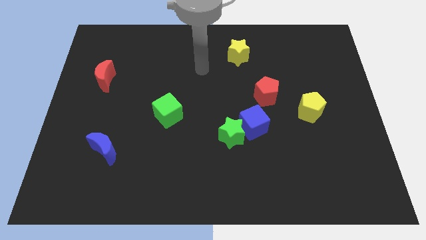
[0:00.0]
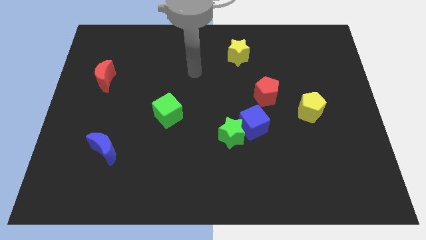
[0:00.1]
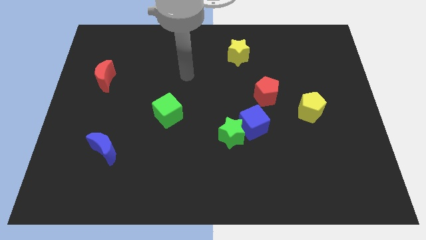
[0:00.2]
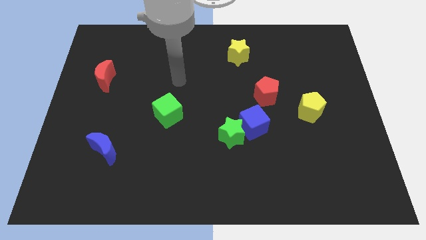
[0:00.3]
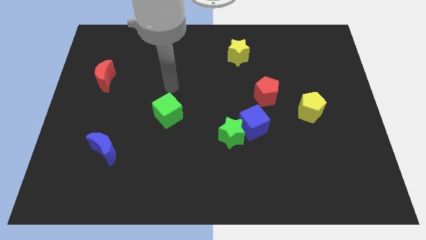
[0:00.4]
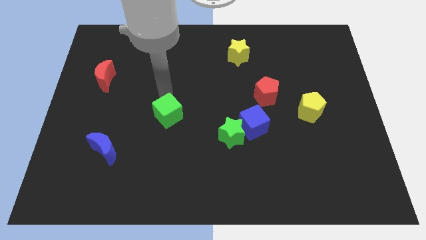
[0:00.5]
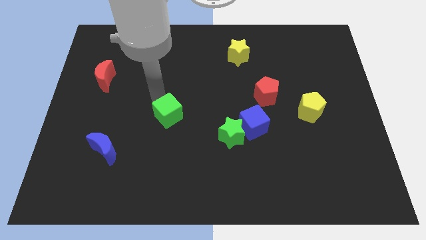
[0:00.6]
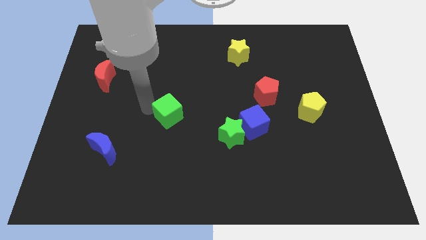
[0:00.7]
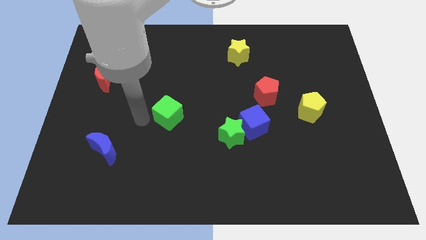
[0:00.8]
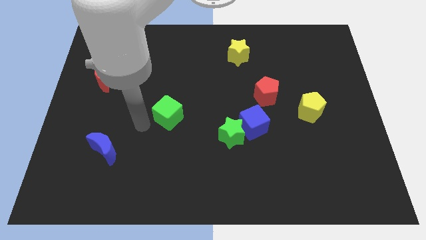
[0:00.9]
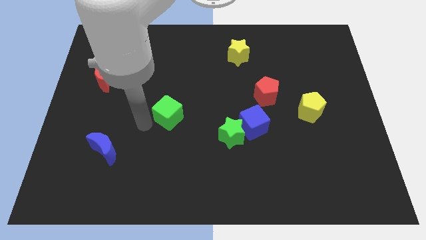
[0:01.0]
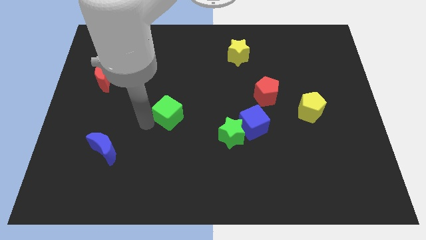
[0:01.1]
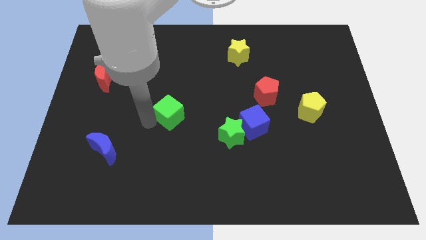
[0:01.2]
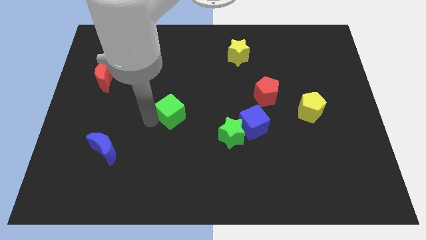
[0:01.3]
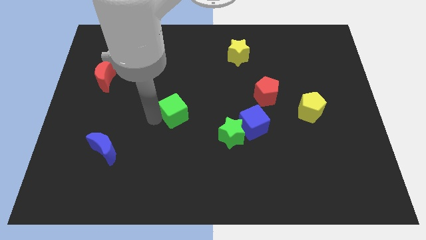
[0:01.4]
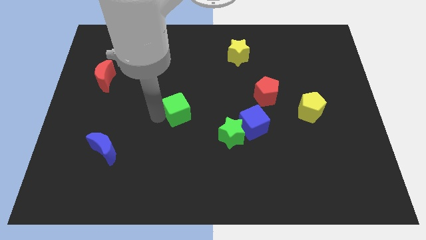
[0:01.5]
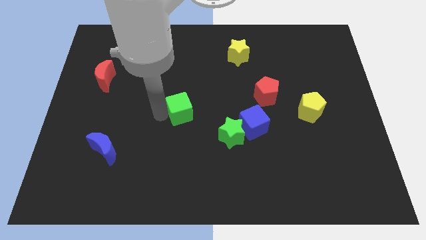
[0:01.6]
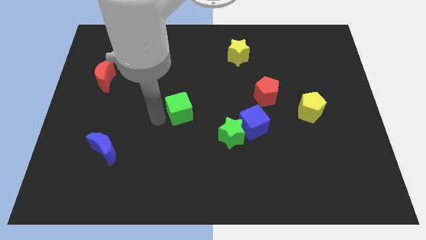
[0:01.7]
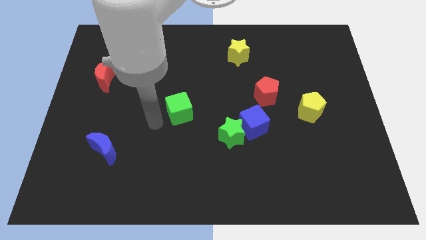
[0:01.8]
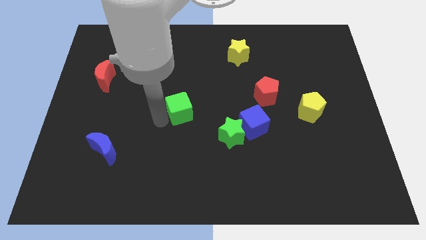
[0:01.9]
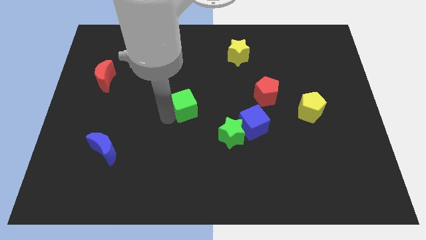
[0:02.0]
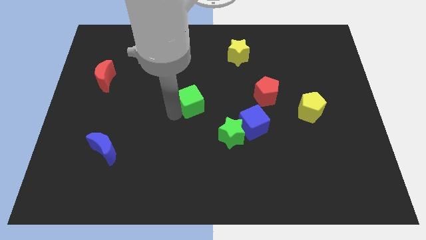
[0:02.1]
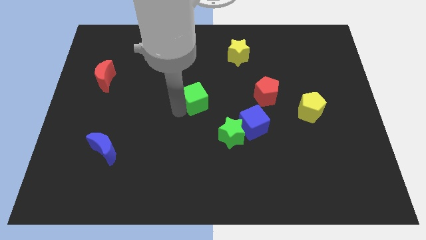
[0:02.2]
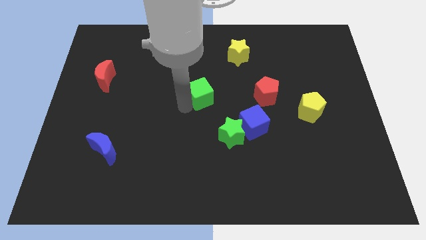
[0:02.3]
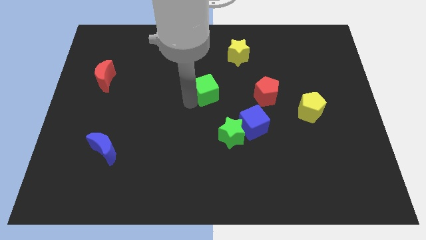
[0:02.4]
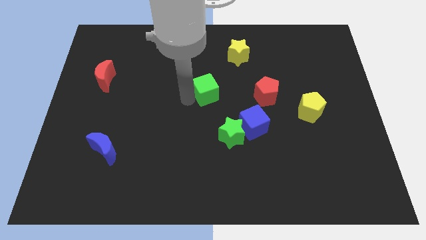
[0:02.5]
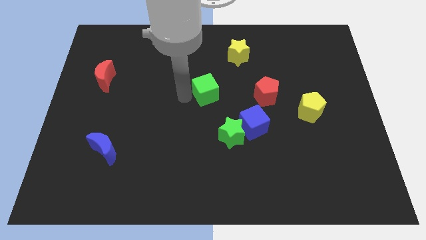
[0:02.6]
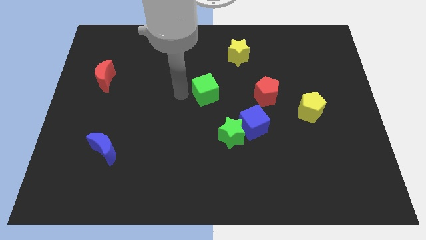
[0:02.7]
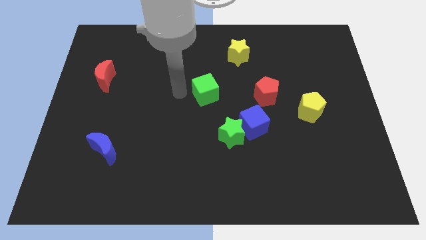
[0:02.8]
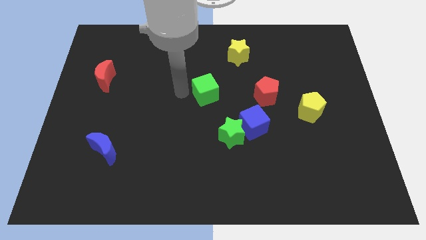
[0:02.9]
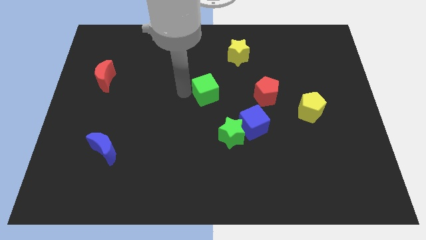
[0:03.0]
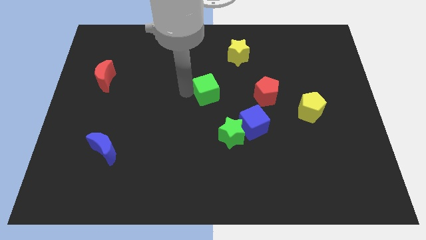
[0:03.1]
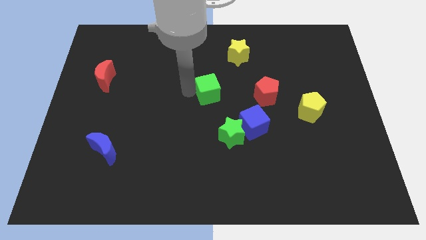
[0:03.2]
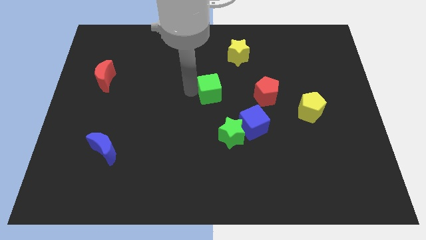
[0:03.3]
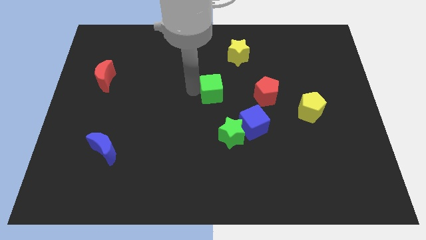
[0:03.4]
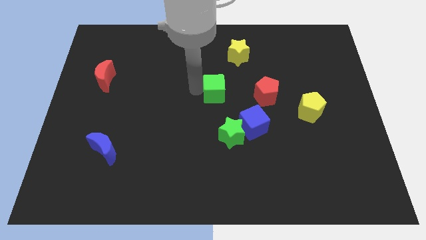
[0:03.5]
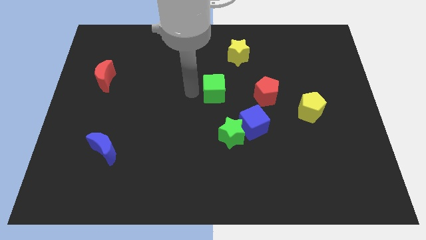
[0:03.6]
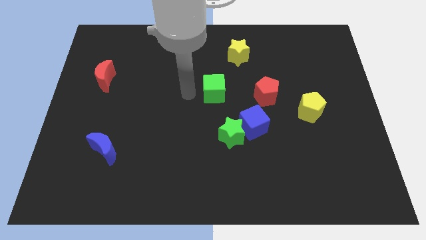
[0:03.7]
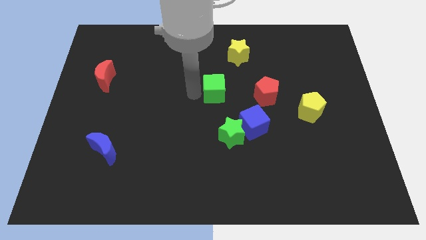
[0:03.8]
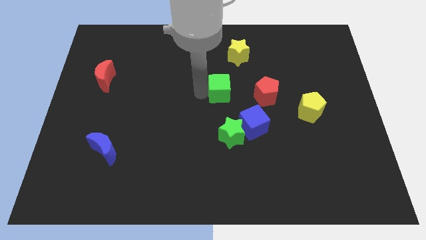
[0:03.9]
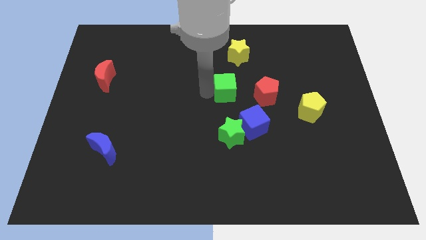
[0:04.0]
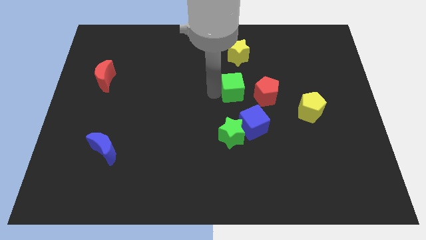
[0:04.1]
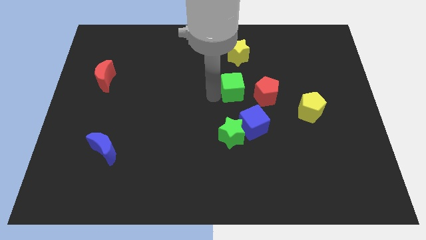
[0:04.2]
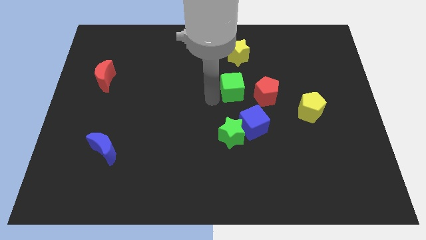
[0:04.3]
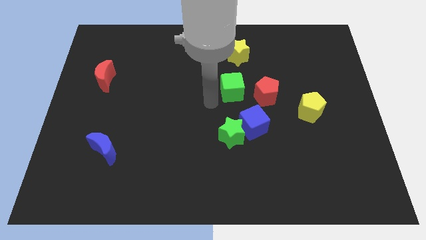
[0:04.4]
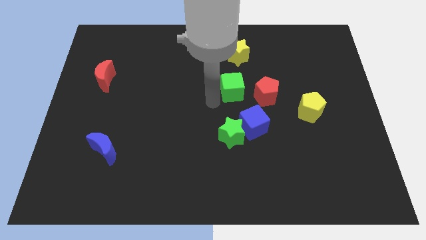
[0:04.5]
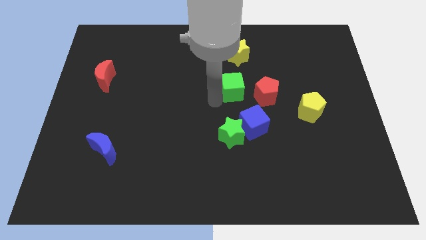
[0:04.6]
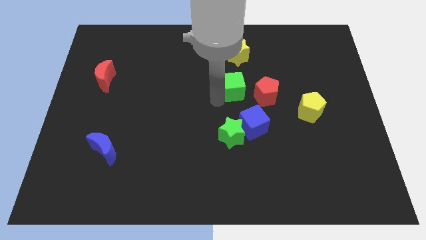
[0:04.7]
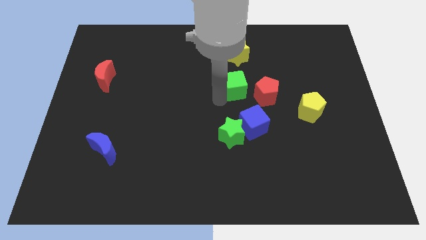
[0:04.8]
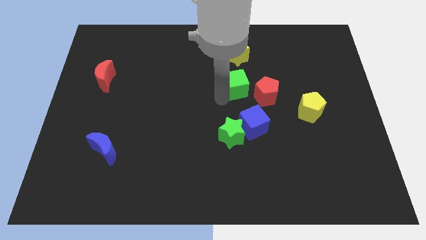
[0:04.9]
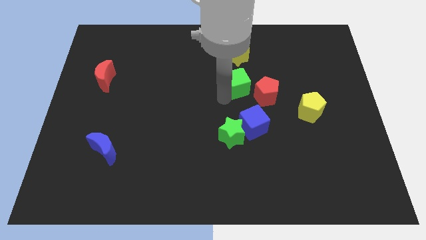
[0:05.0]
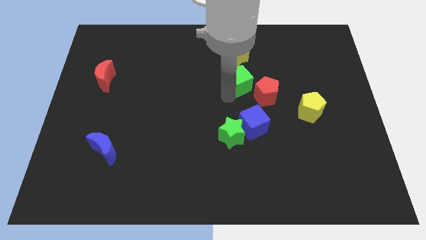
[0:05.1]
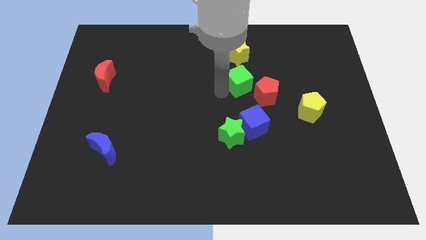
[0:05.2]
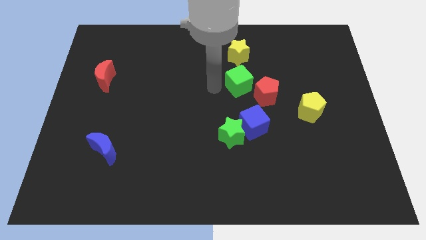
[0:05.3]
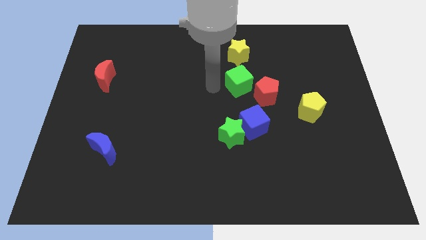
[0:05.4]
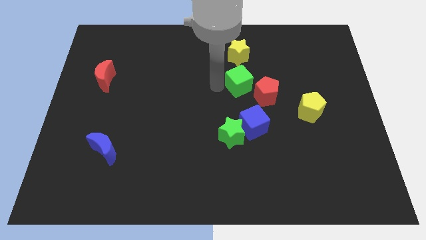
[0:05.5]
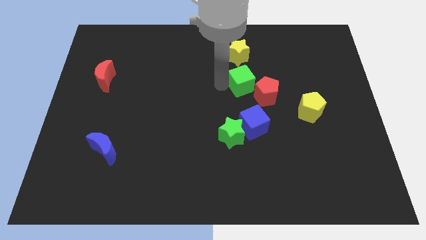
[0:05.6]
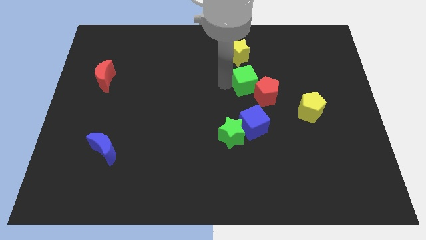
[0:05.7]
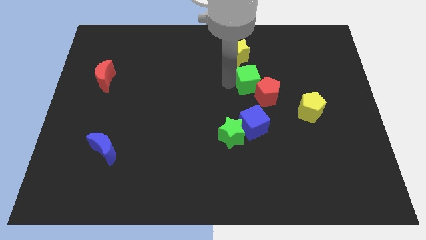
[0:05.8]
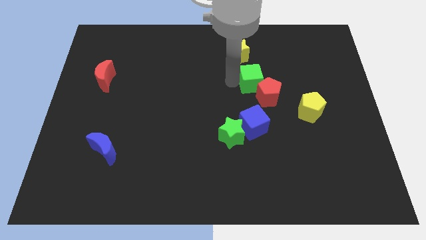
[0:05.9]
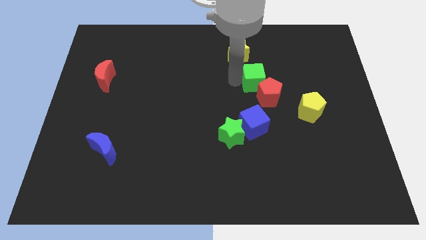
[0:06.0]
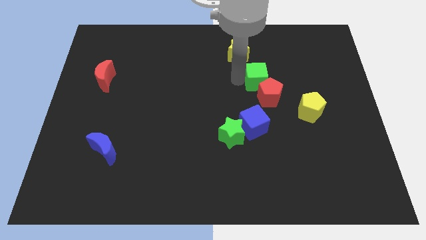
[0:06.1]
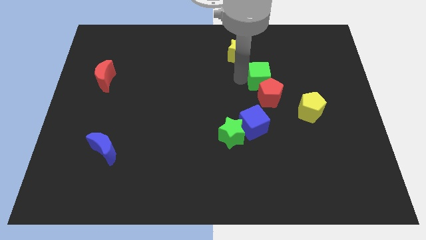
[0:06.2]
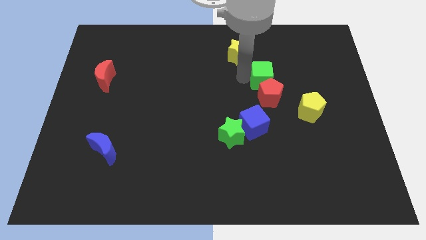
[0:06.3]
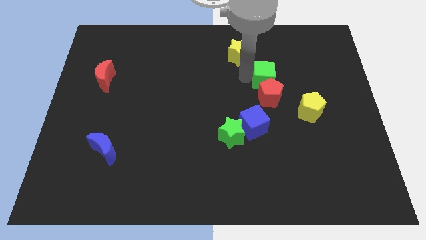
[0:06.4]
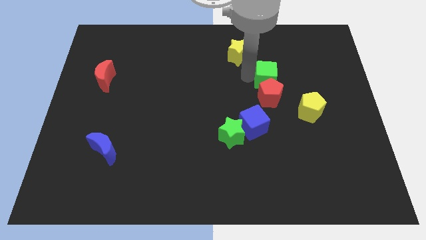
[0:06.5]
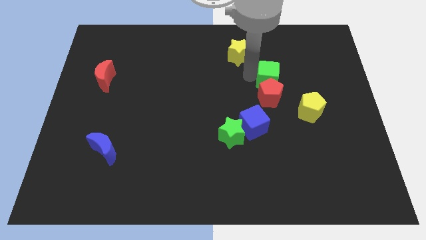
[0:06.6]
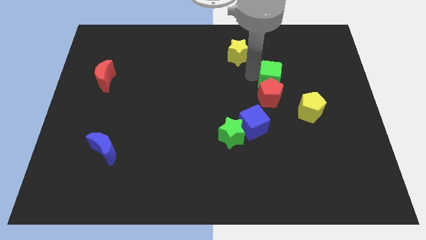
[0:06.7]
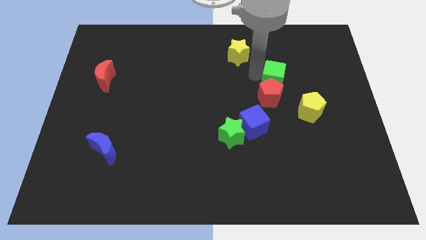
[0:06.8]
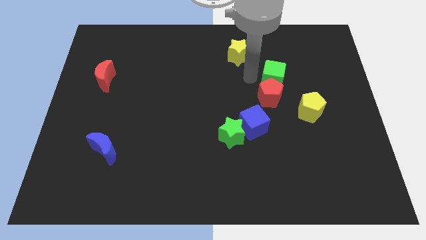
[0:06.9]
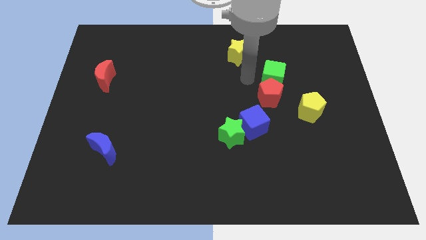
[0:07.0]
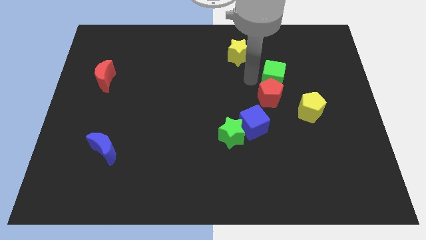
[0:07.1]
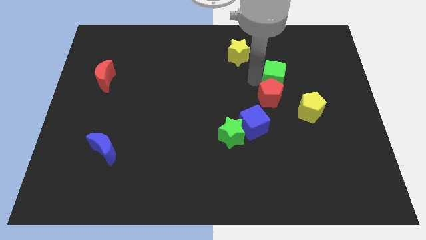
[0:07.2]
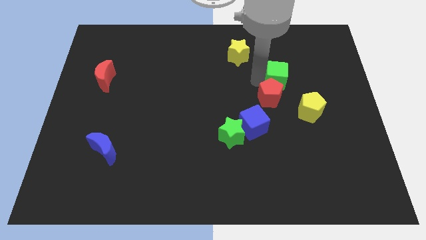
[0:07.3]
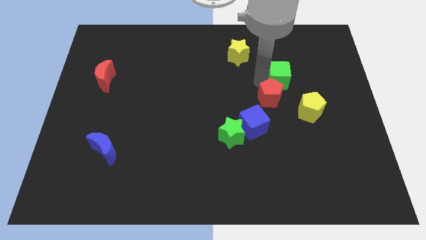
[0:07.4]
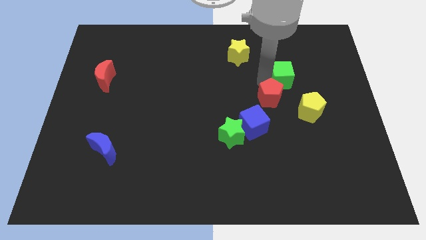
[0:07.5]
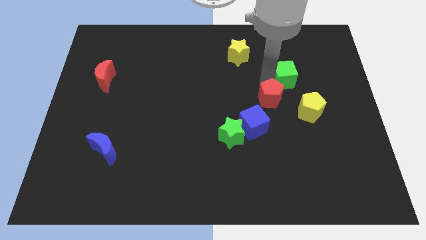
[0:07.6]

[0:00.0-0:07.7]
move the green cube to the top side of the yellow pentagon
